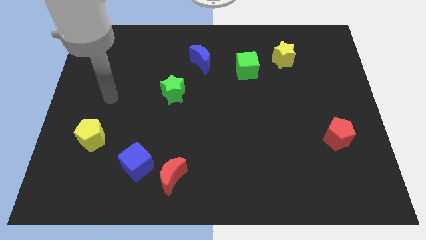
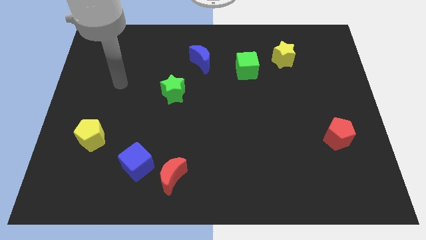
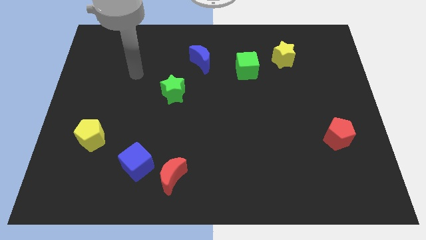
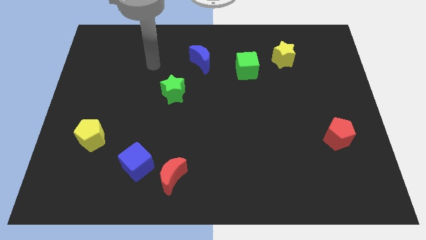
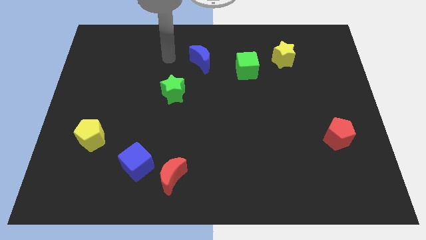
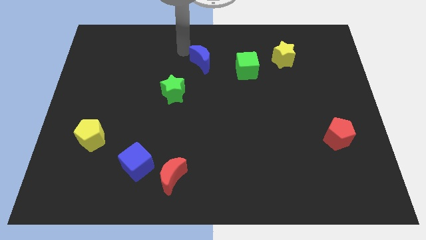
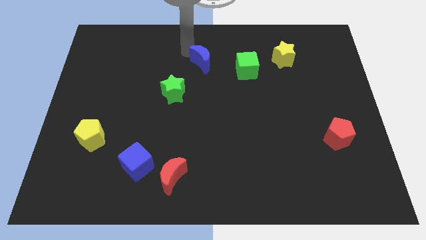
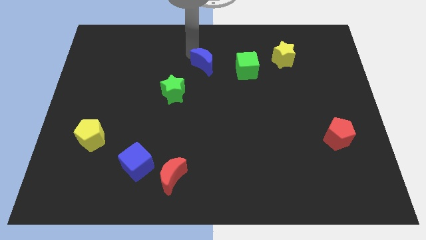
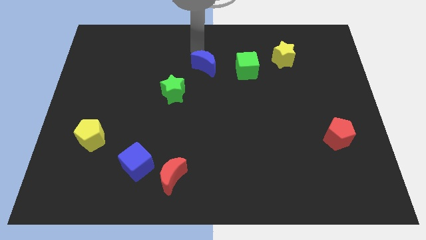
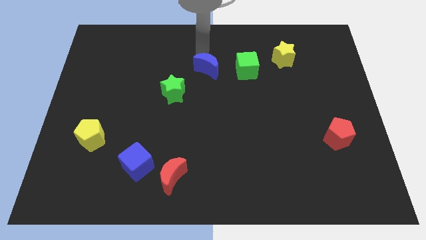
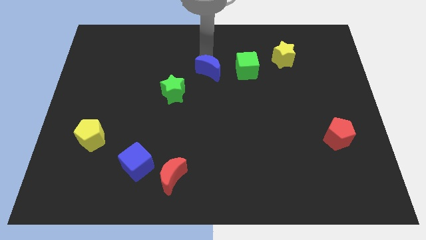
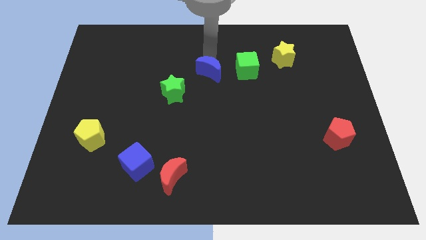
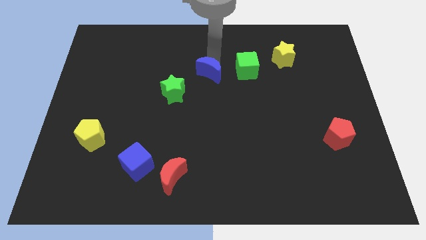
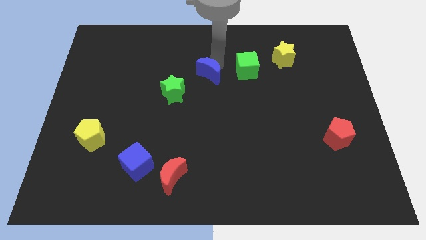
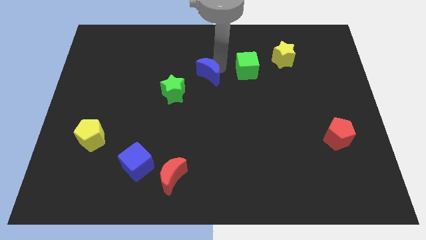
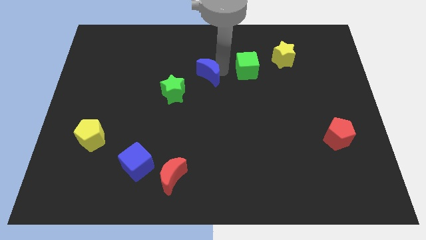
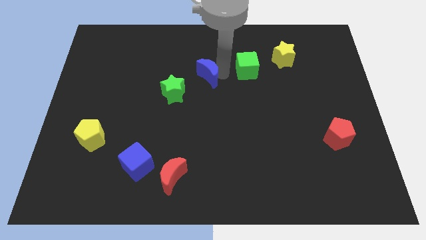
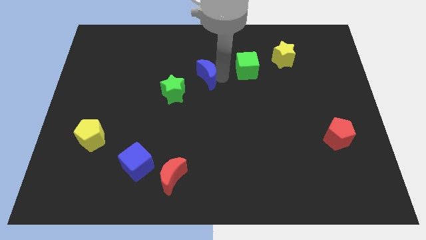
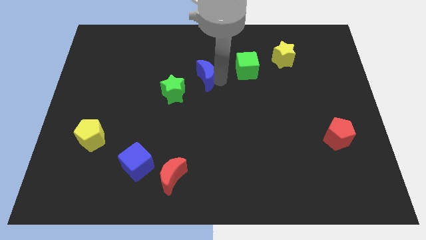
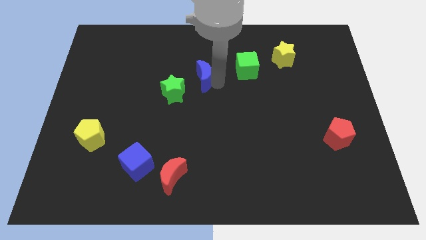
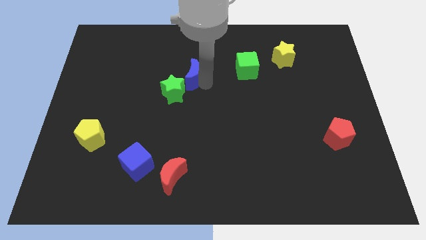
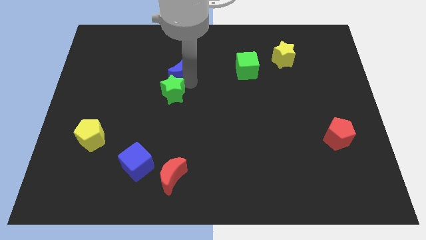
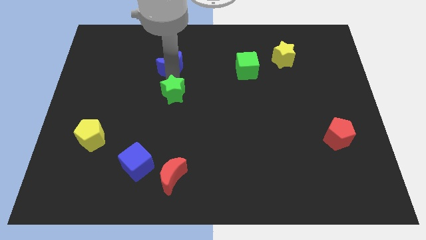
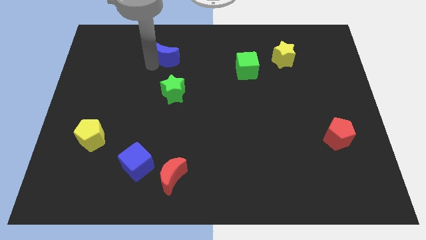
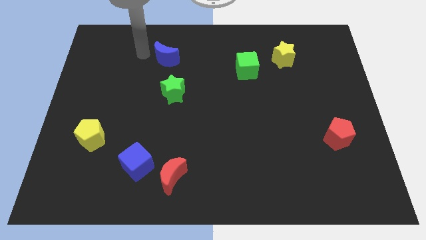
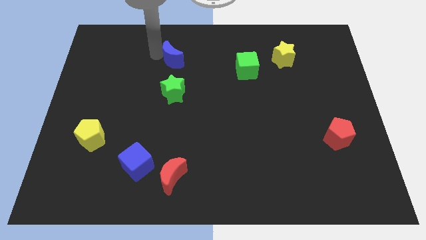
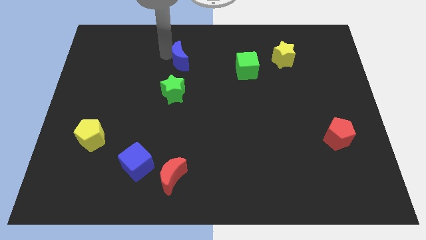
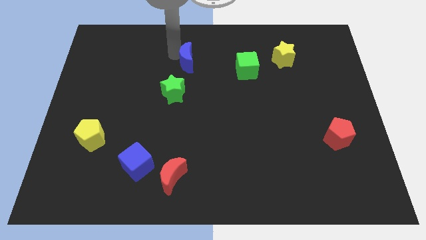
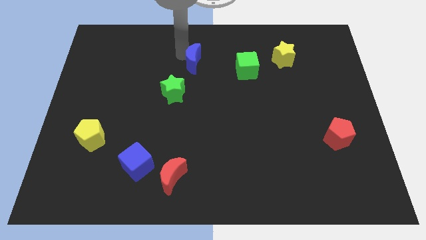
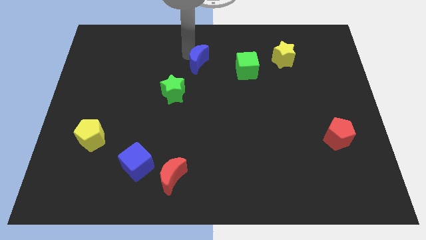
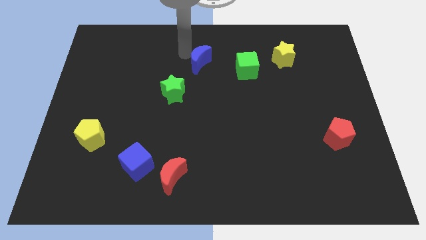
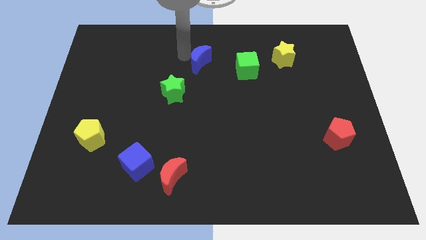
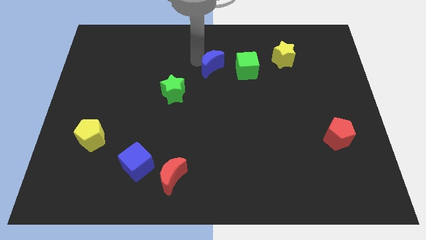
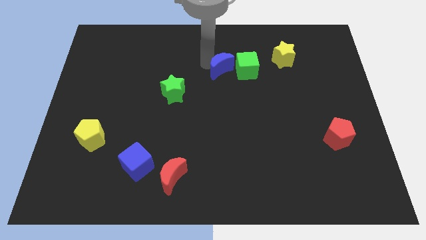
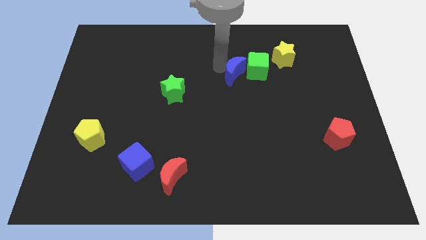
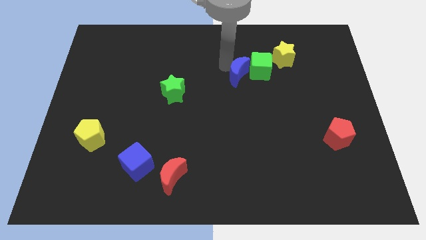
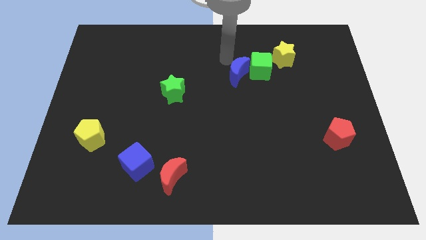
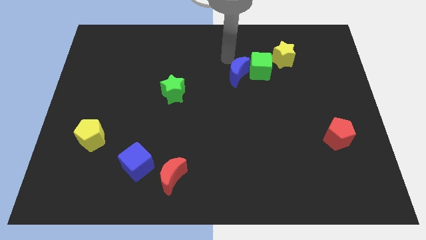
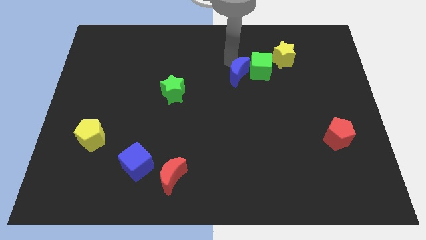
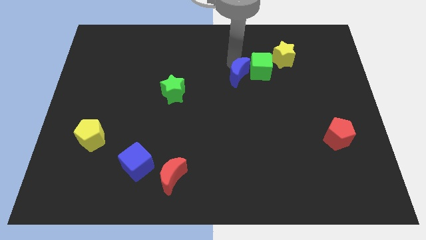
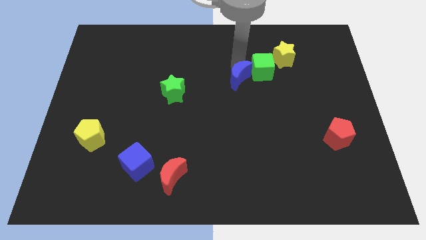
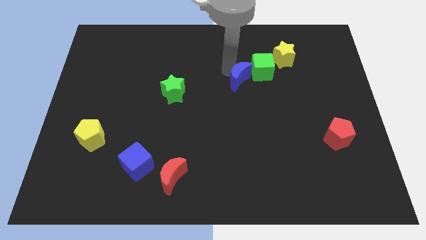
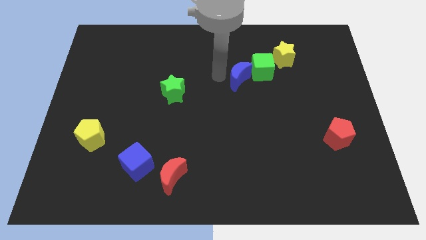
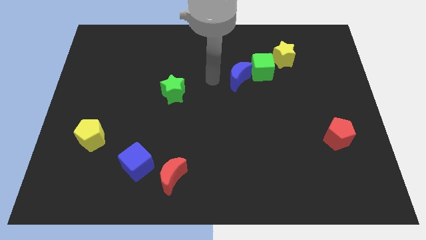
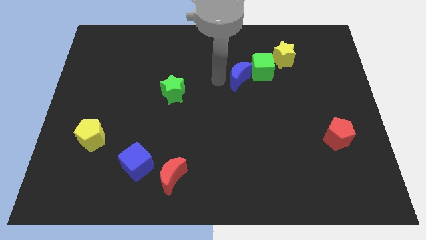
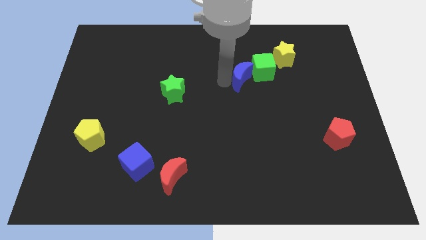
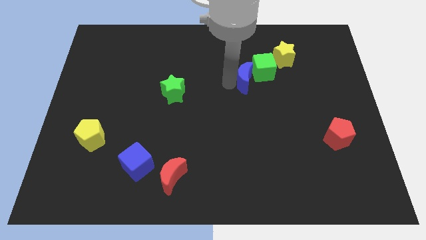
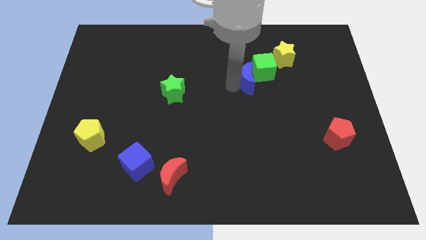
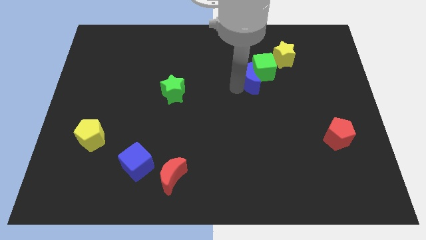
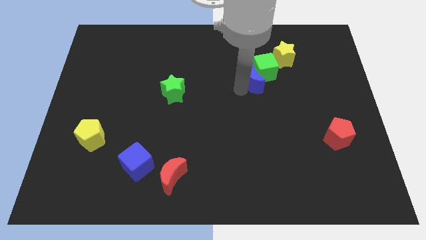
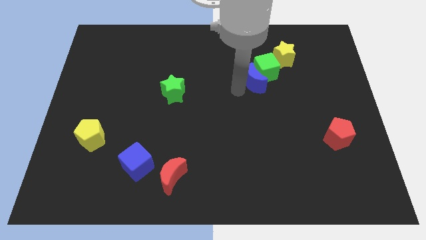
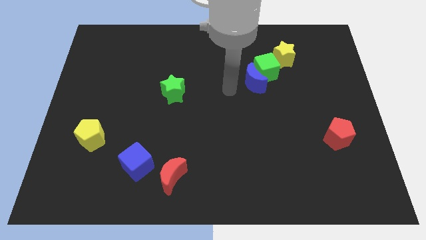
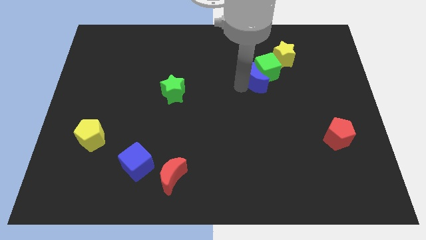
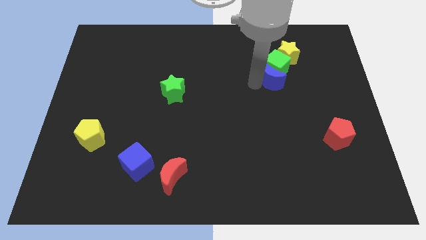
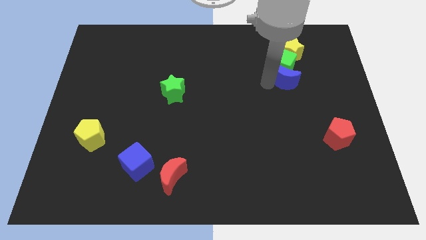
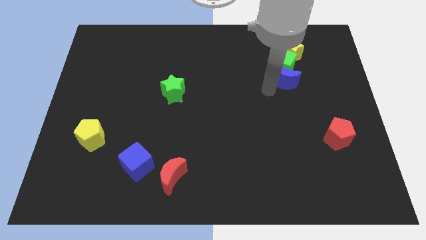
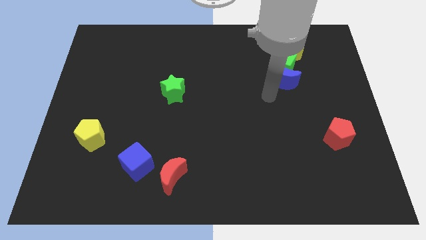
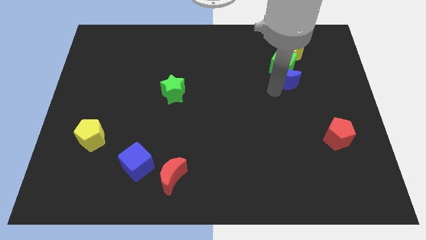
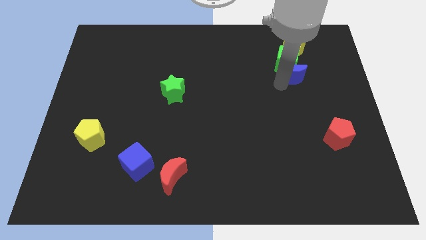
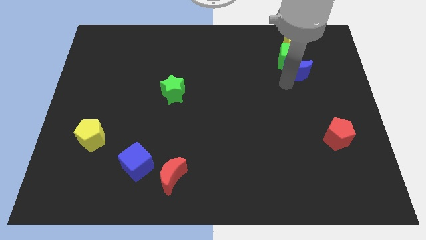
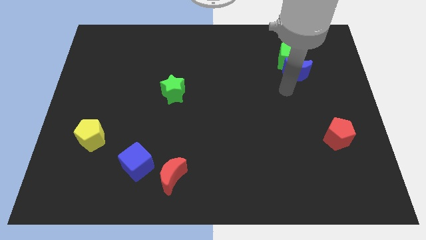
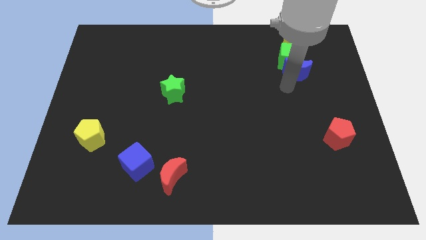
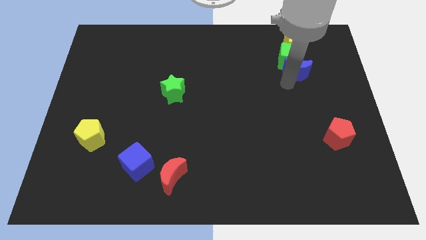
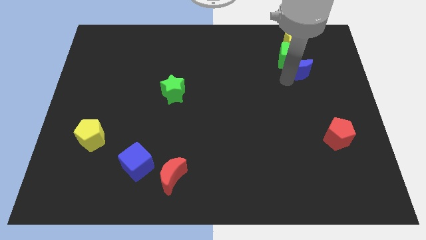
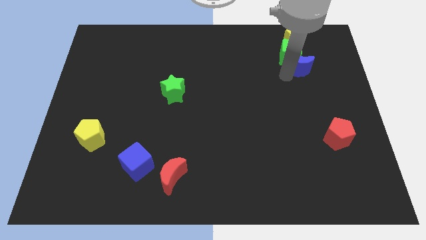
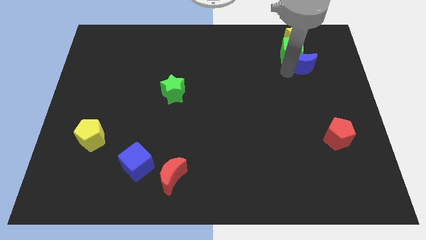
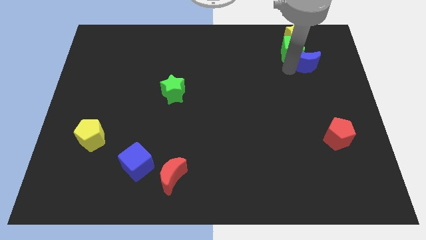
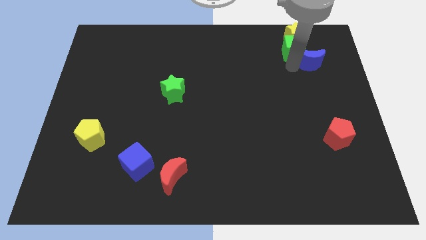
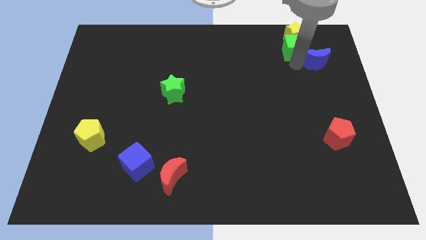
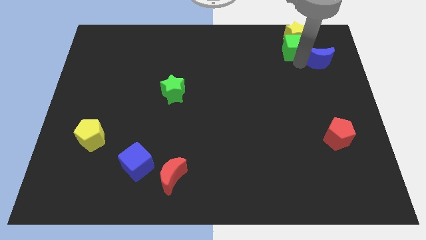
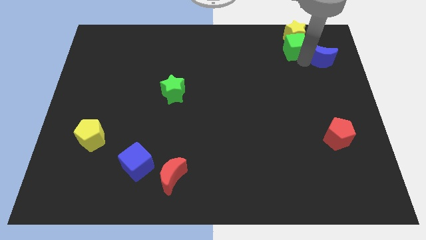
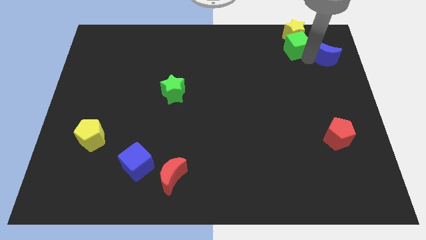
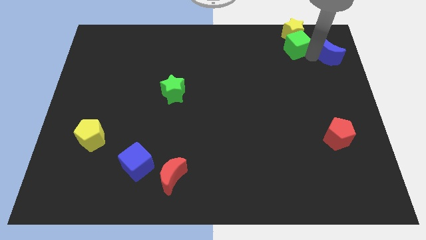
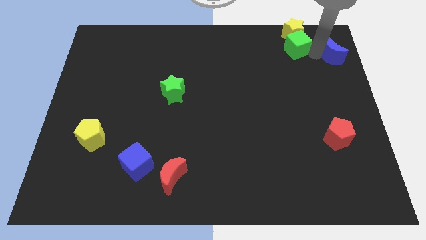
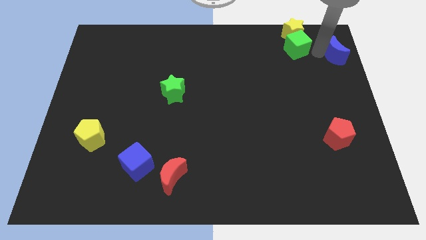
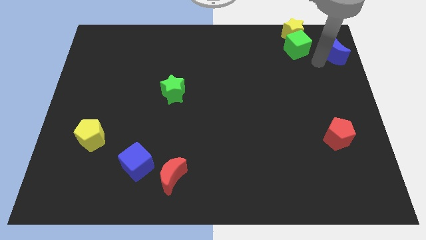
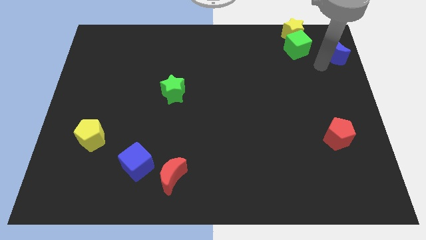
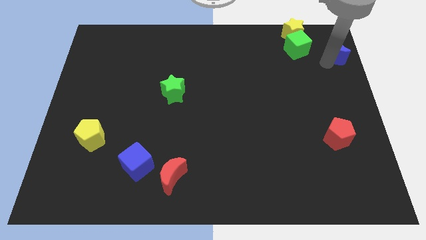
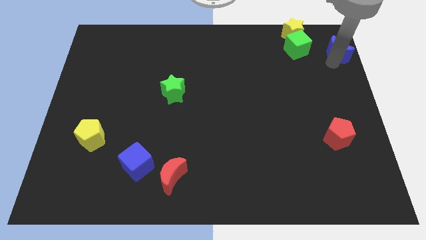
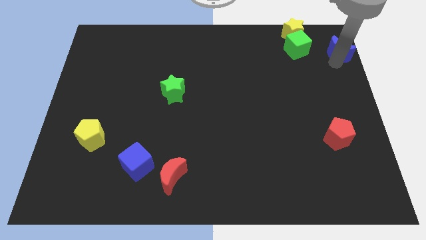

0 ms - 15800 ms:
slide the blue moon to the upper right corner
